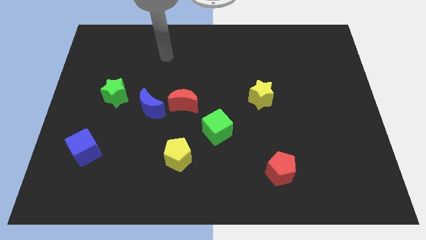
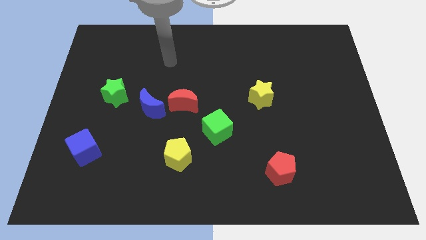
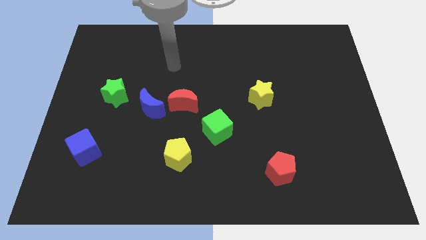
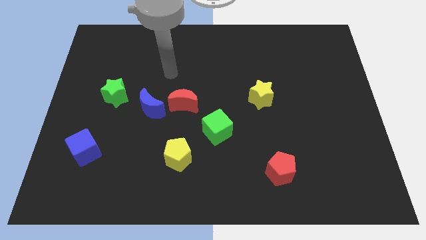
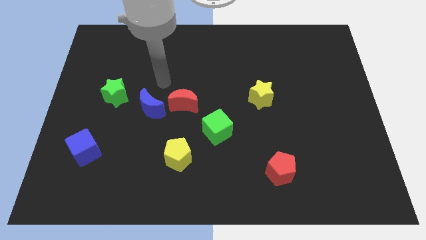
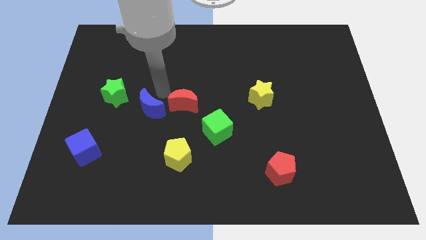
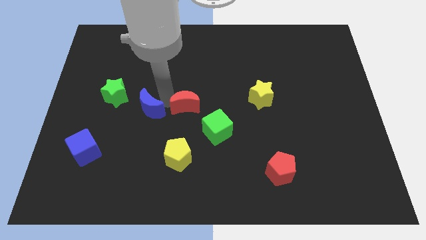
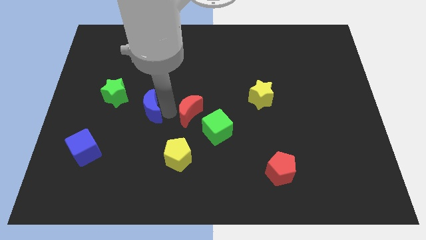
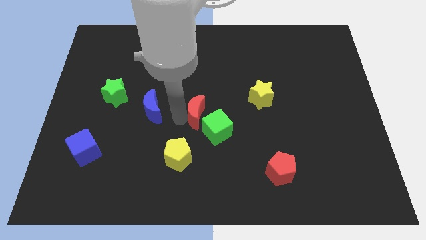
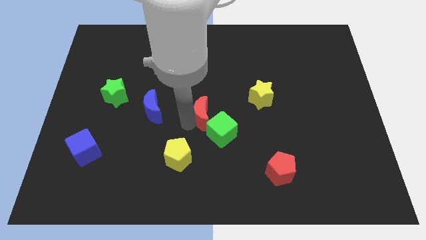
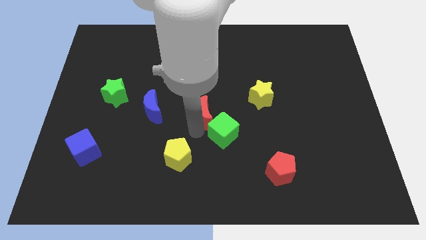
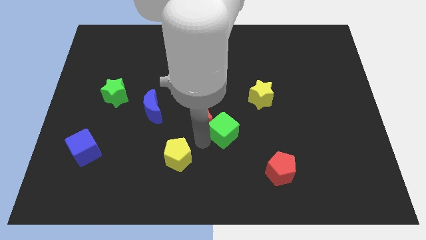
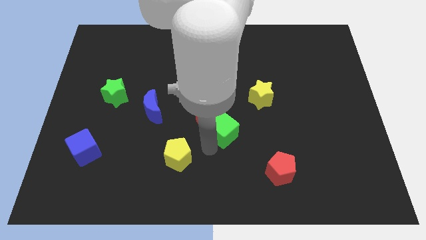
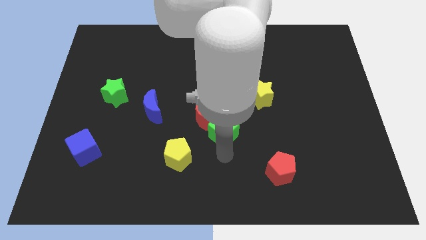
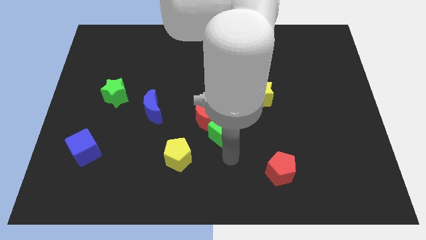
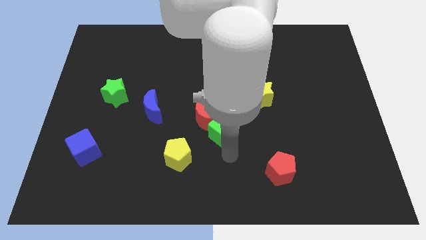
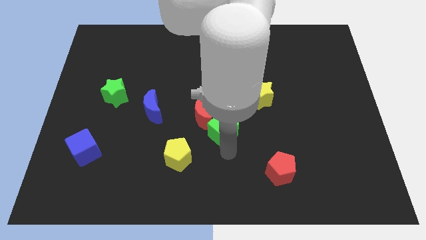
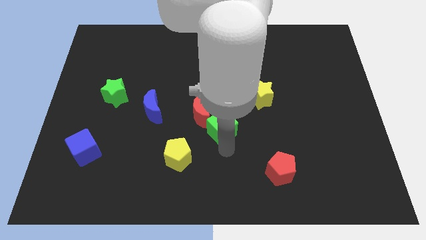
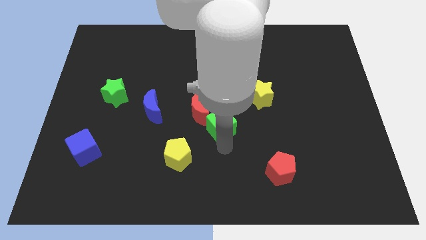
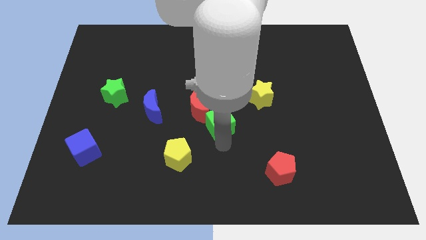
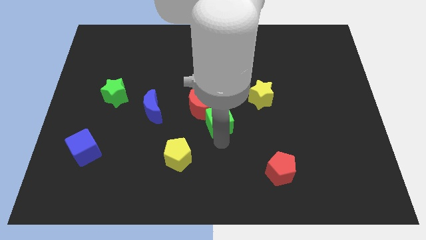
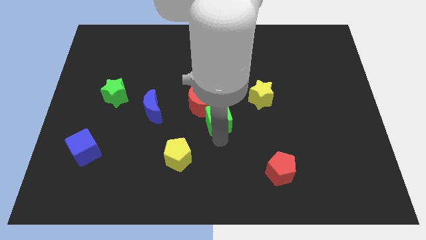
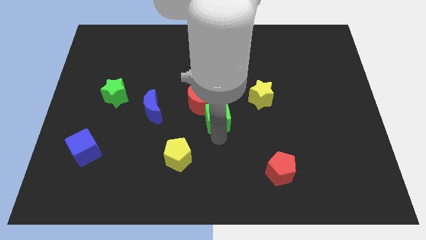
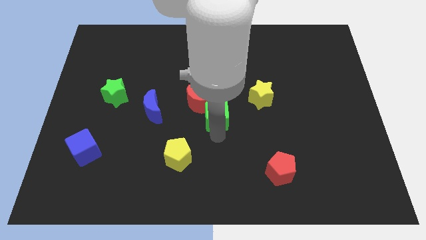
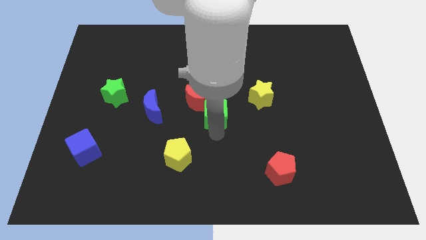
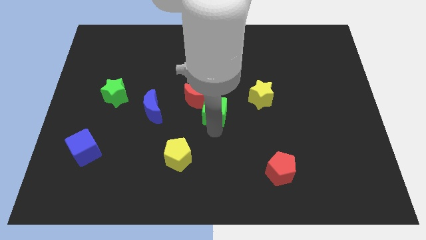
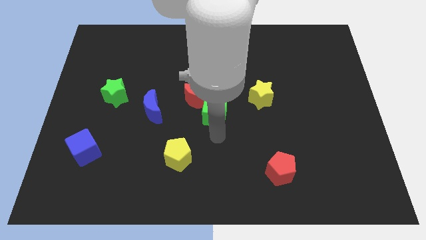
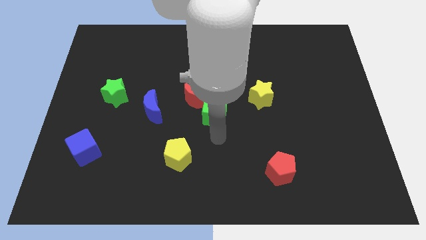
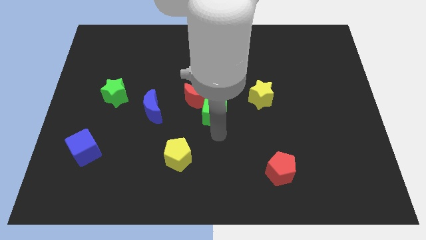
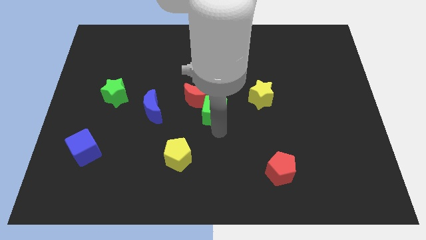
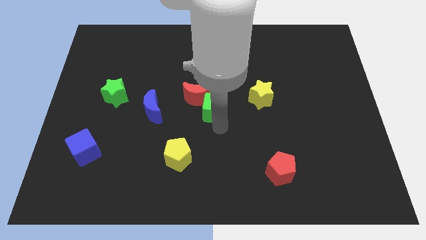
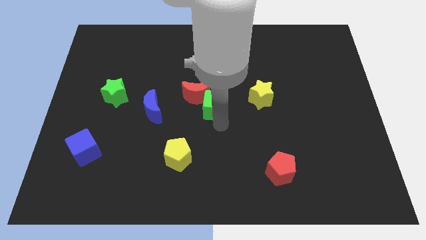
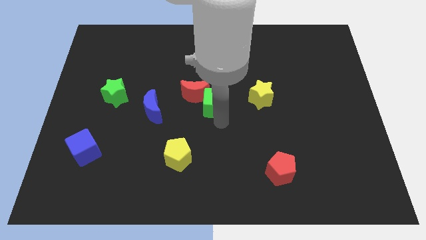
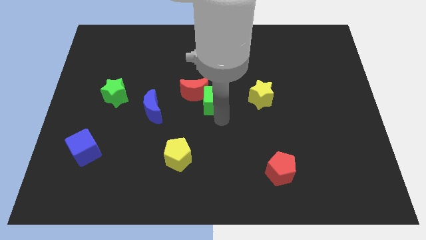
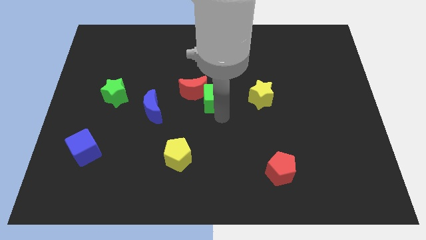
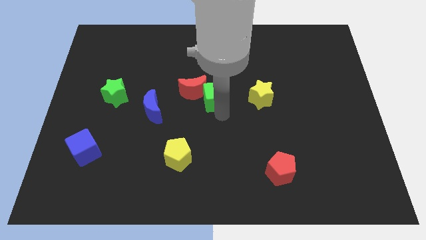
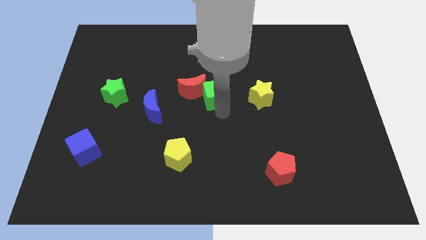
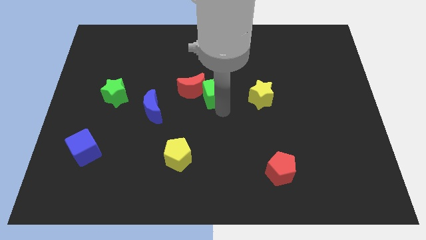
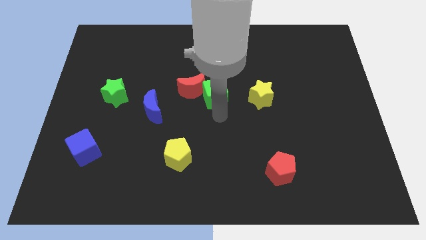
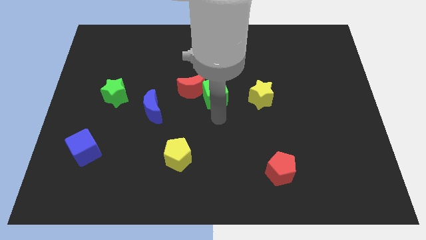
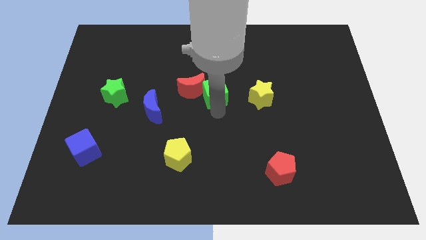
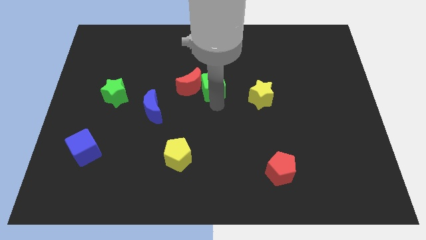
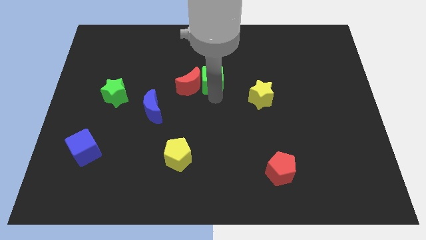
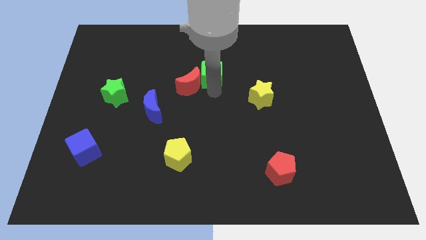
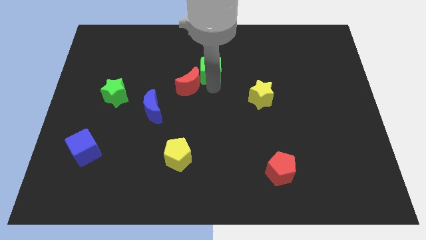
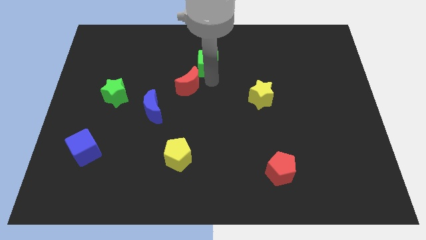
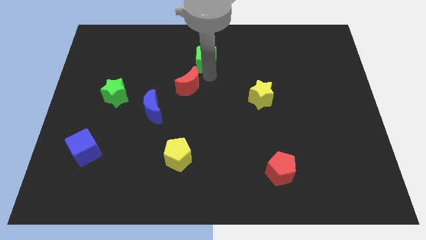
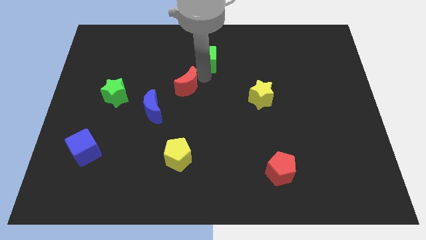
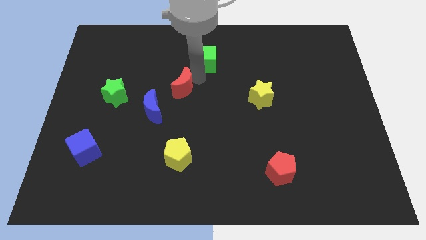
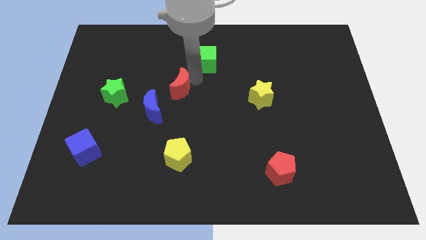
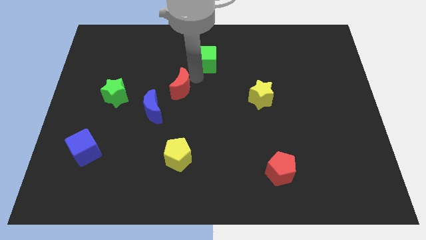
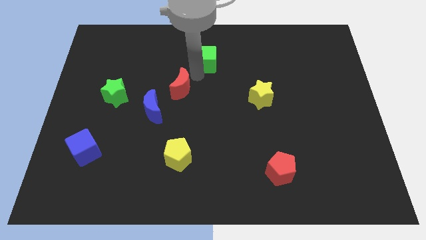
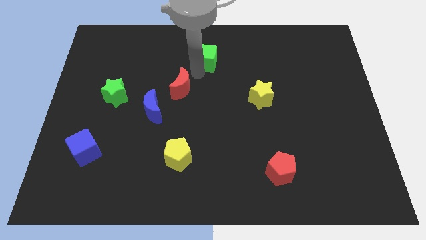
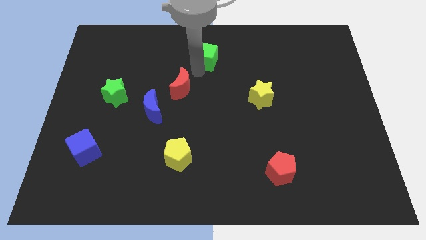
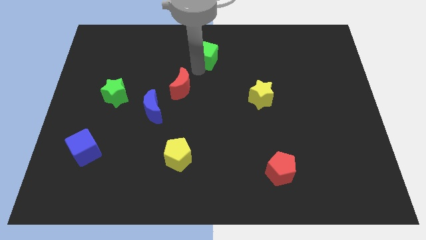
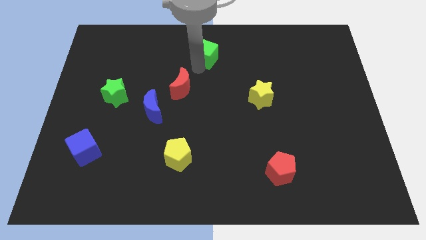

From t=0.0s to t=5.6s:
slide the green cube to the towards your base

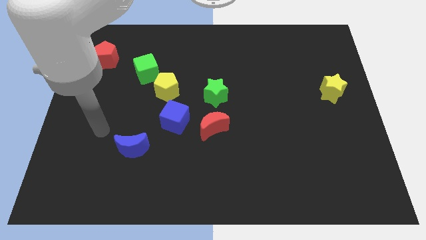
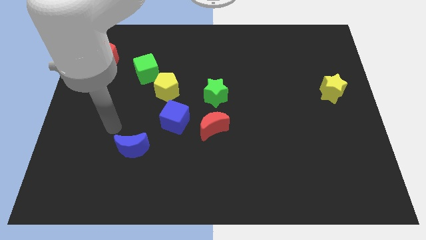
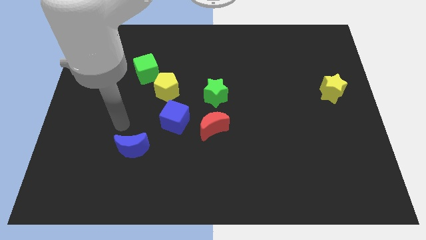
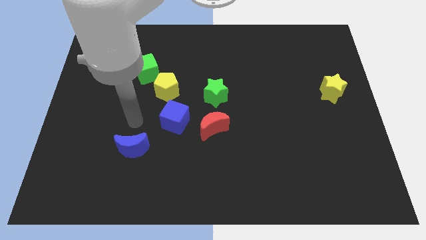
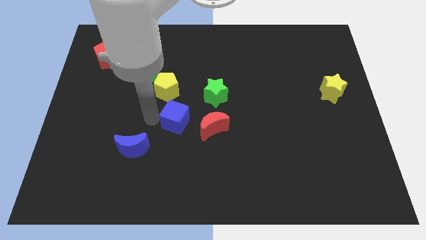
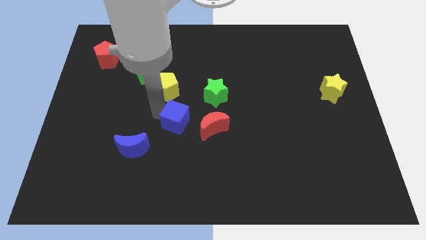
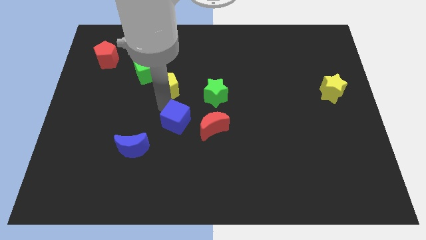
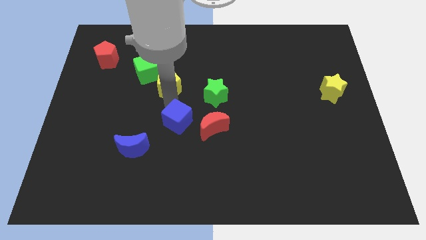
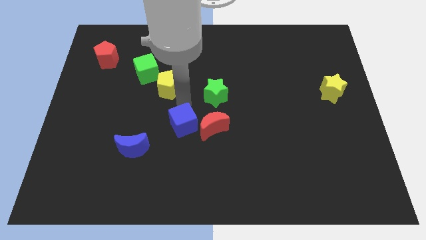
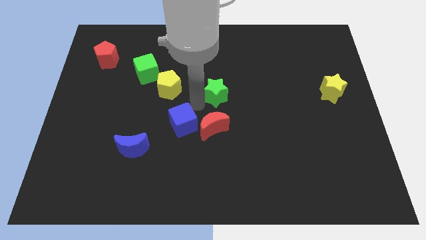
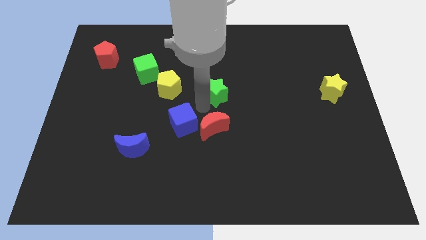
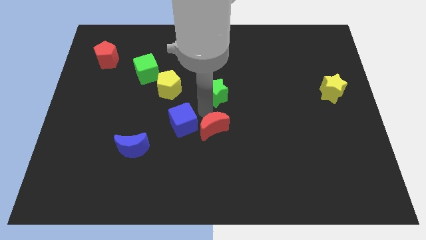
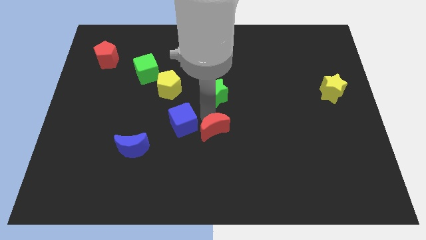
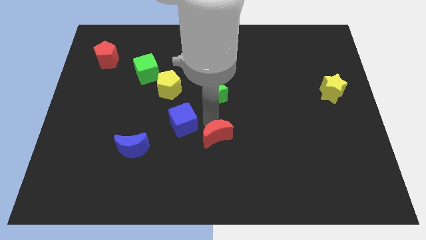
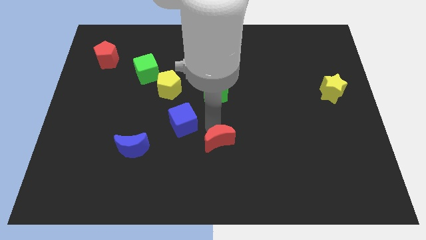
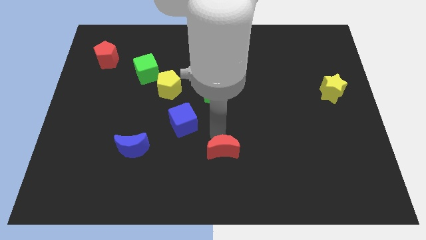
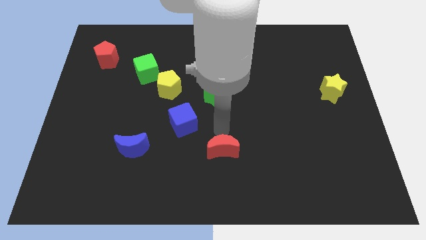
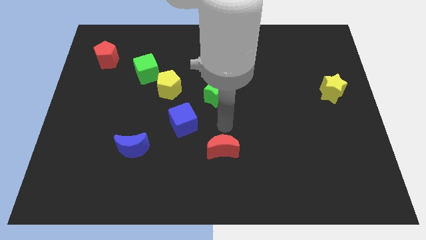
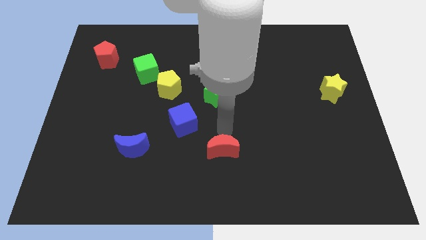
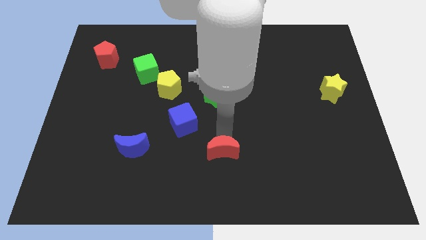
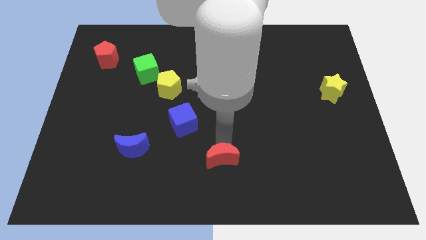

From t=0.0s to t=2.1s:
slide the red moon to the bottom side
